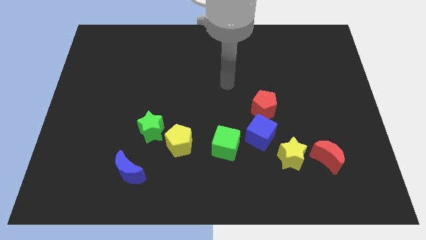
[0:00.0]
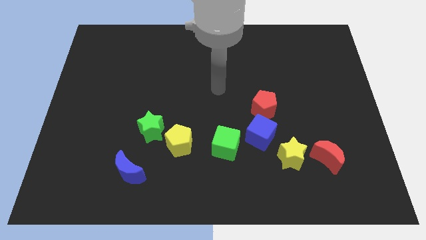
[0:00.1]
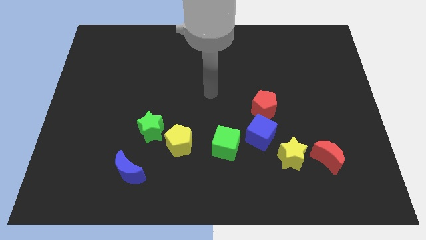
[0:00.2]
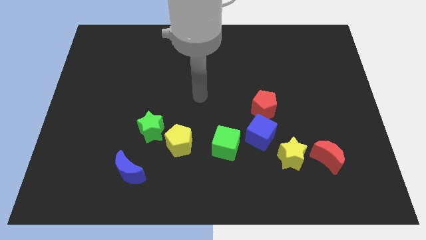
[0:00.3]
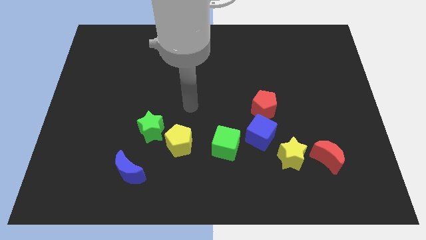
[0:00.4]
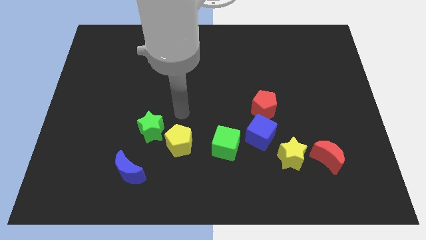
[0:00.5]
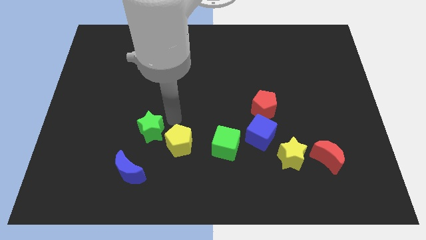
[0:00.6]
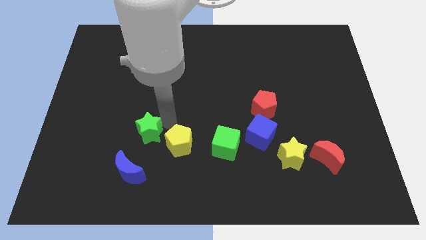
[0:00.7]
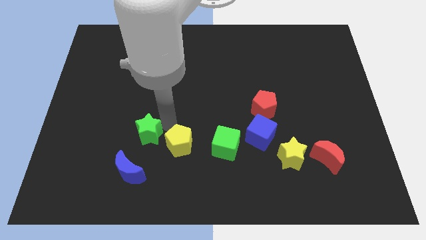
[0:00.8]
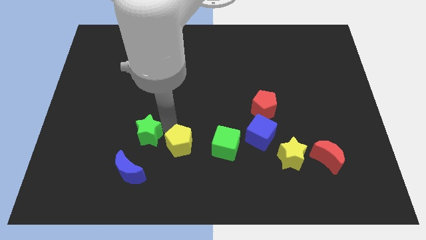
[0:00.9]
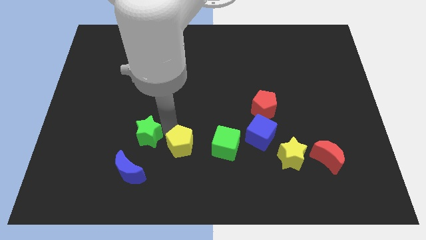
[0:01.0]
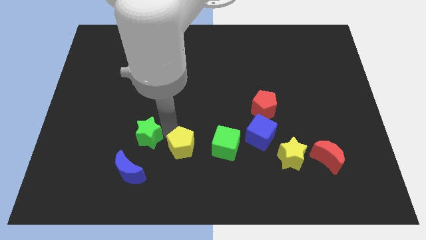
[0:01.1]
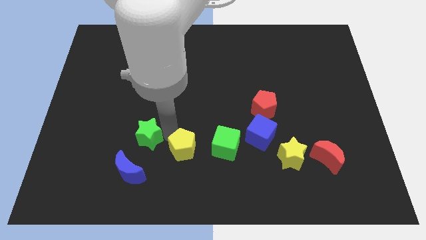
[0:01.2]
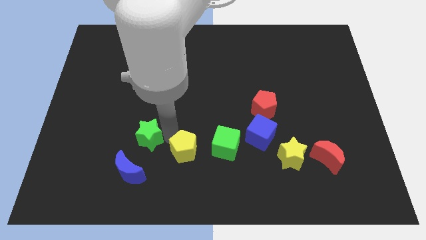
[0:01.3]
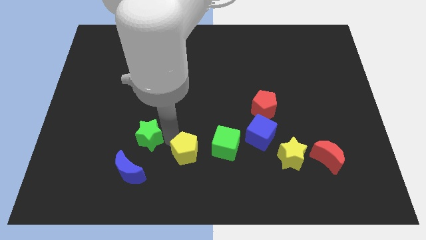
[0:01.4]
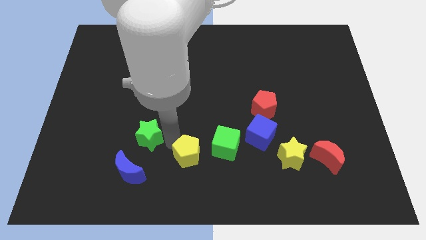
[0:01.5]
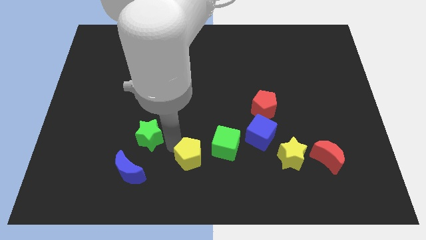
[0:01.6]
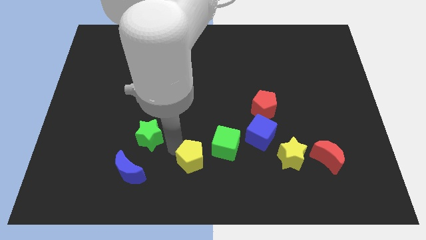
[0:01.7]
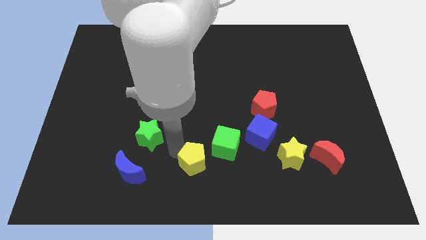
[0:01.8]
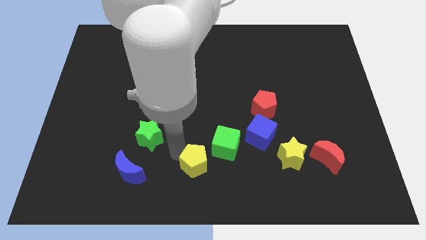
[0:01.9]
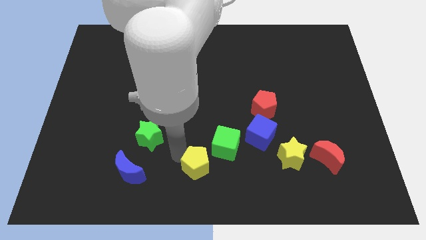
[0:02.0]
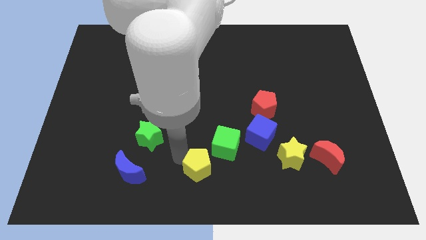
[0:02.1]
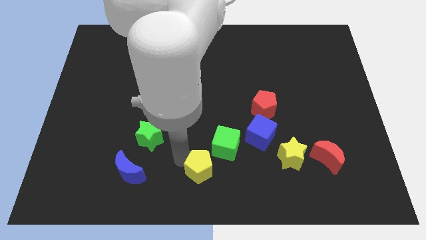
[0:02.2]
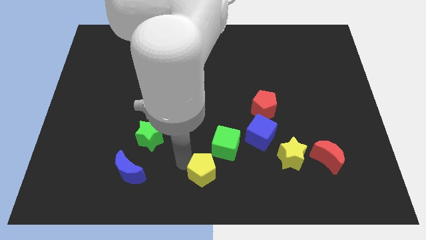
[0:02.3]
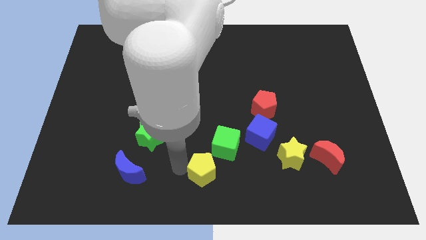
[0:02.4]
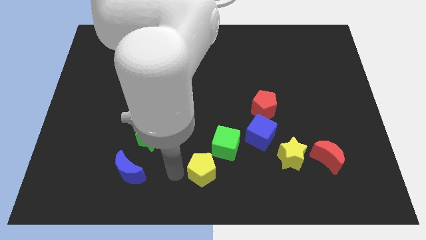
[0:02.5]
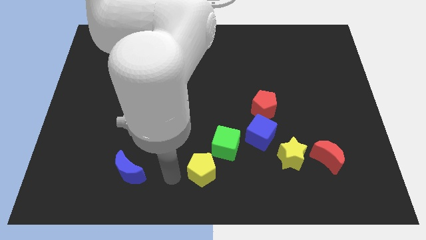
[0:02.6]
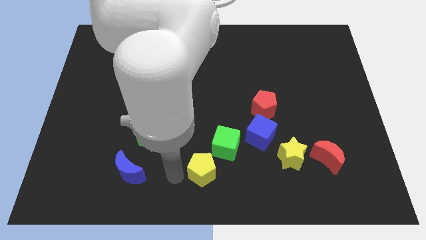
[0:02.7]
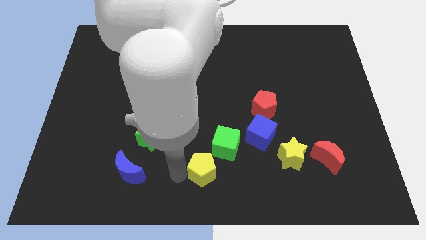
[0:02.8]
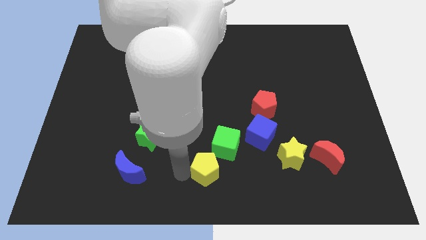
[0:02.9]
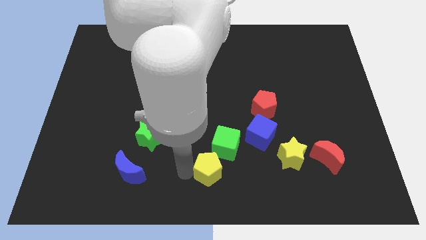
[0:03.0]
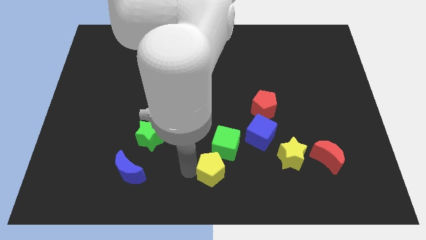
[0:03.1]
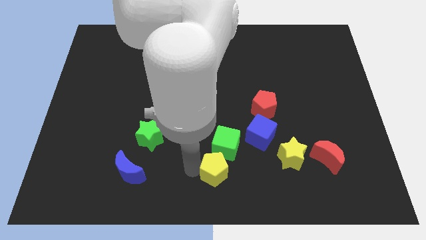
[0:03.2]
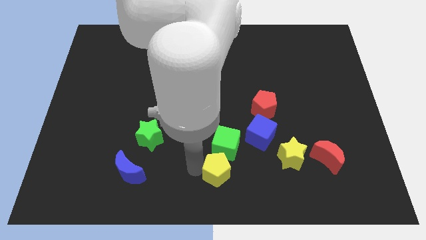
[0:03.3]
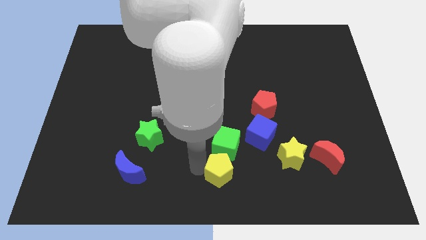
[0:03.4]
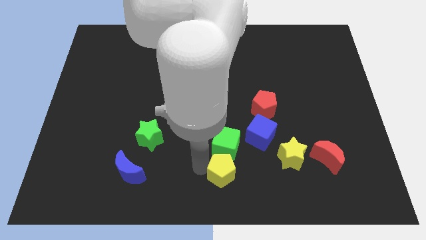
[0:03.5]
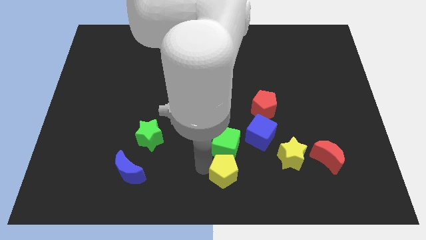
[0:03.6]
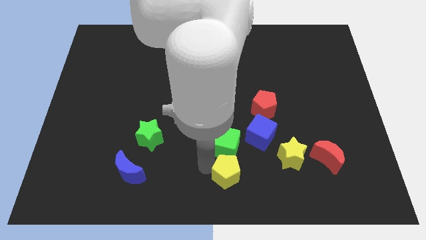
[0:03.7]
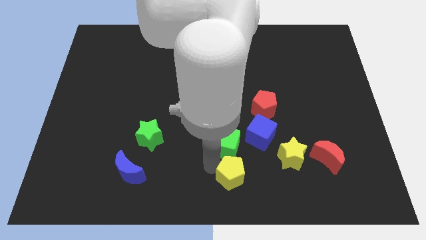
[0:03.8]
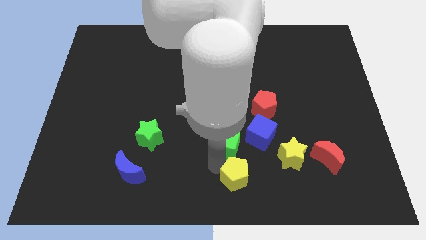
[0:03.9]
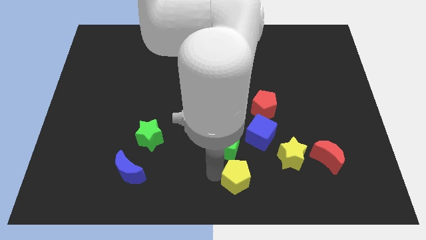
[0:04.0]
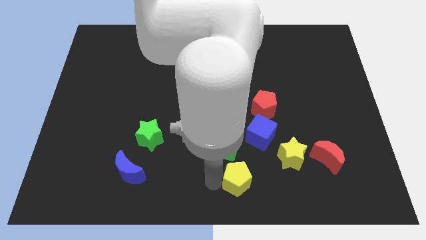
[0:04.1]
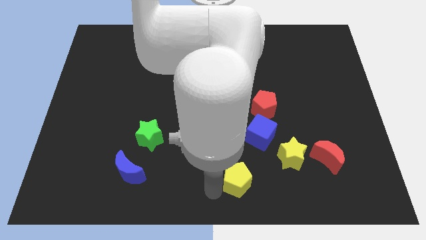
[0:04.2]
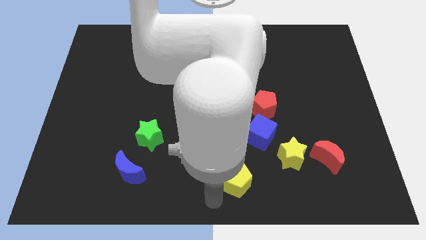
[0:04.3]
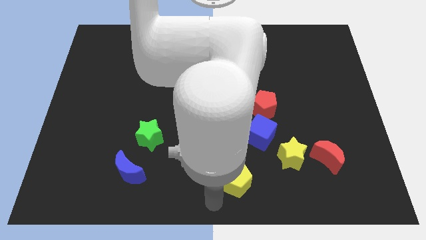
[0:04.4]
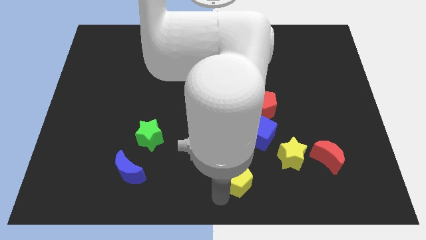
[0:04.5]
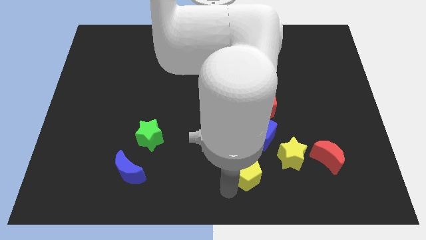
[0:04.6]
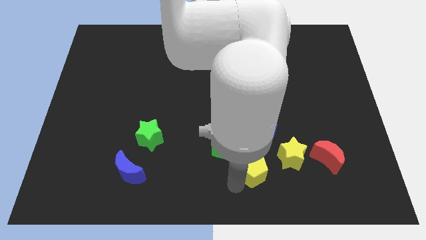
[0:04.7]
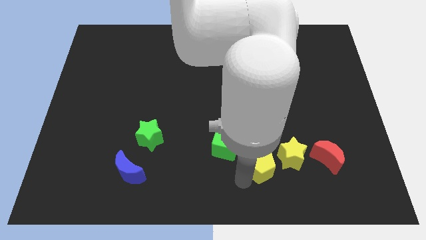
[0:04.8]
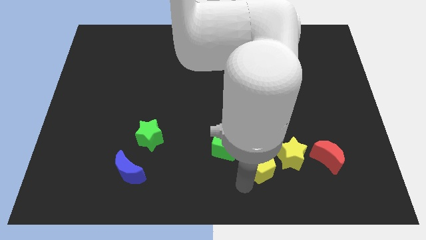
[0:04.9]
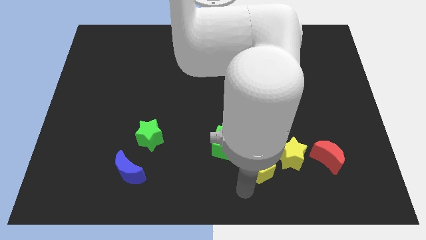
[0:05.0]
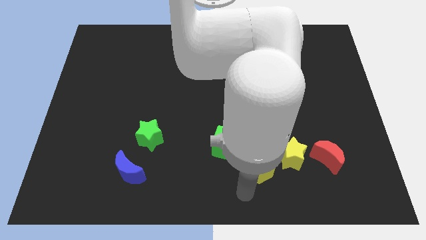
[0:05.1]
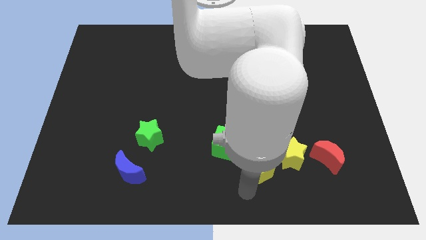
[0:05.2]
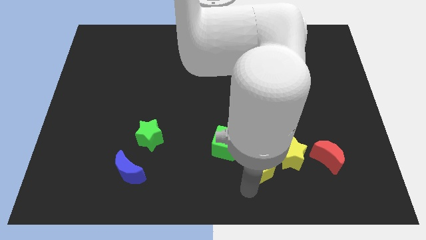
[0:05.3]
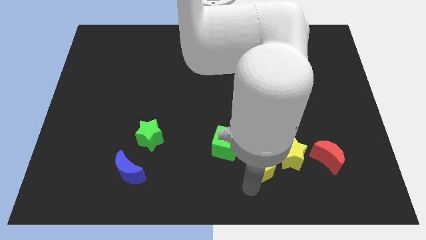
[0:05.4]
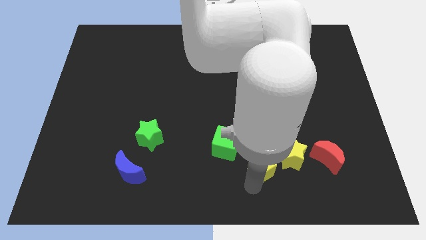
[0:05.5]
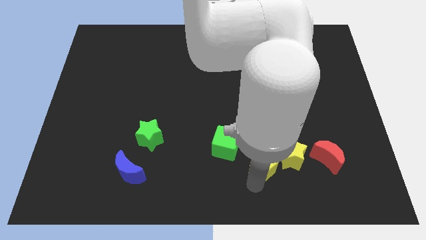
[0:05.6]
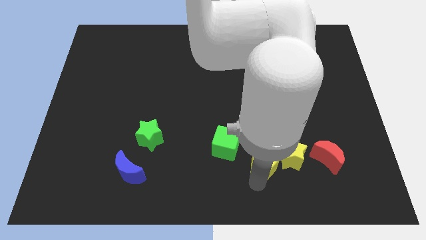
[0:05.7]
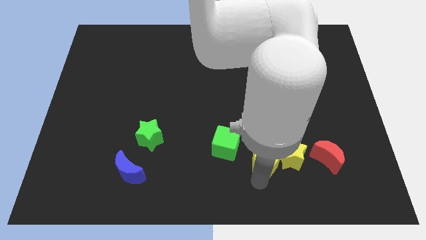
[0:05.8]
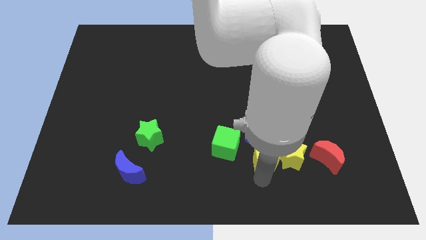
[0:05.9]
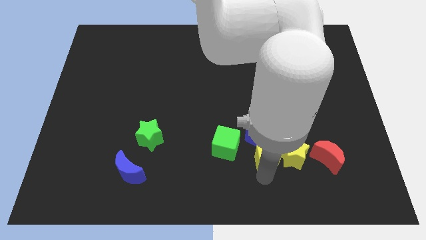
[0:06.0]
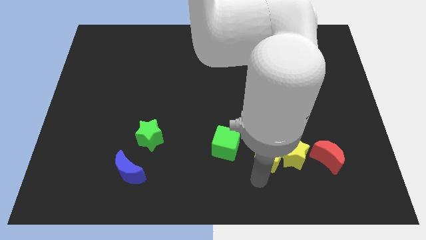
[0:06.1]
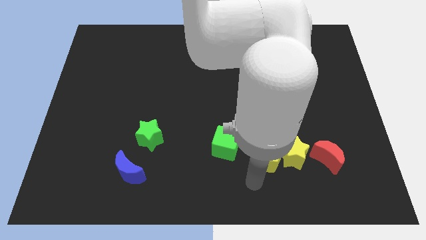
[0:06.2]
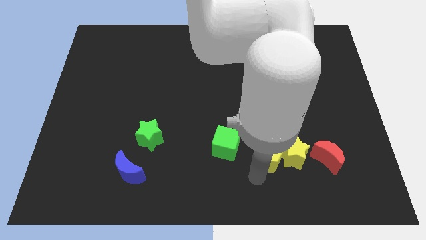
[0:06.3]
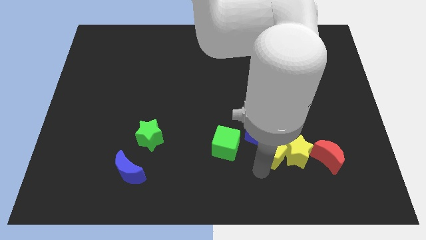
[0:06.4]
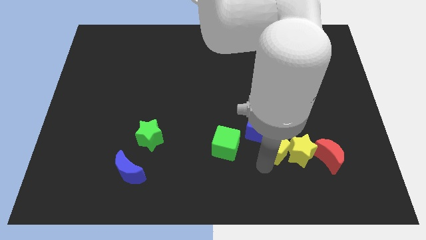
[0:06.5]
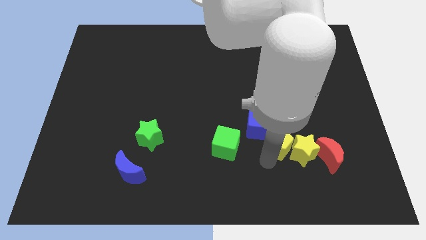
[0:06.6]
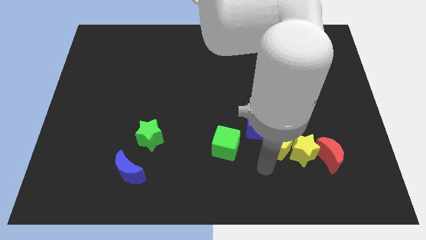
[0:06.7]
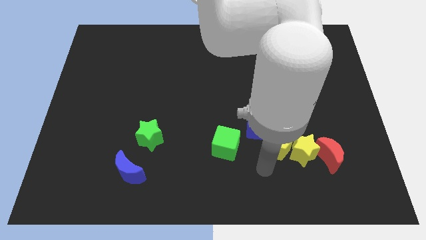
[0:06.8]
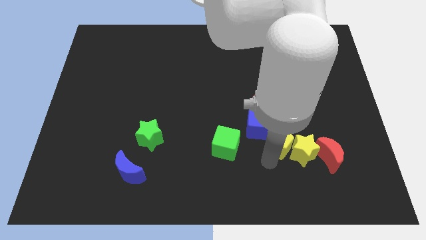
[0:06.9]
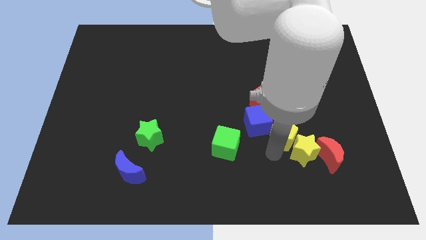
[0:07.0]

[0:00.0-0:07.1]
move the yellow pentagon to the top of the yellow star
